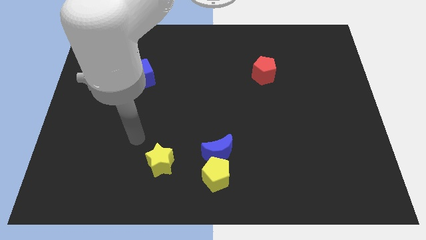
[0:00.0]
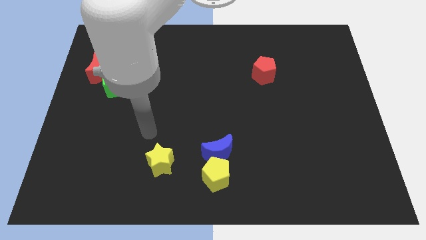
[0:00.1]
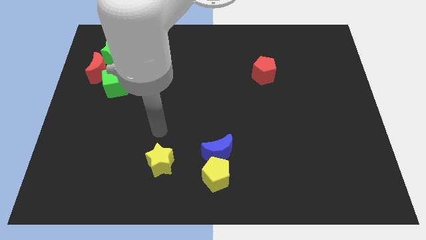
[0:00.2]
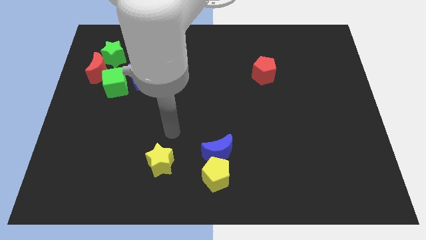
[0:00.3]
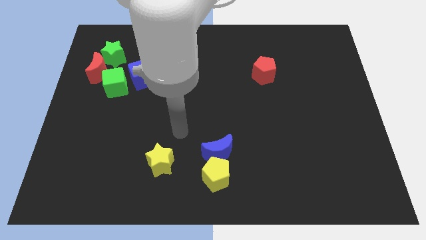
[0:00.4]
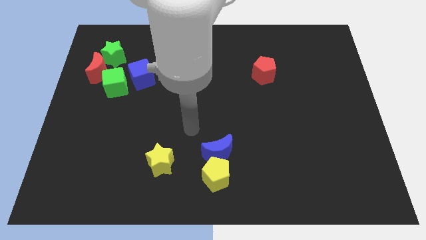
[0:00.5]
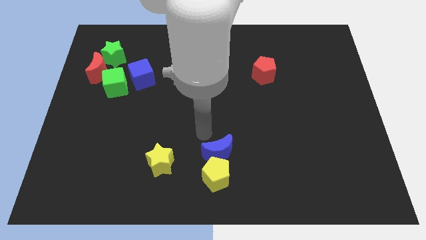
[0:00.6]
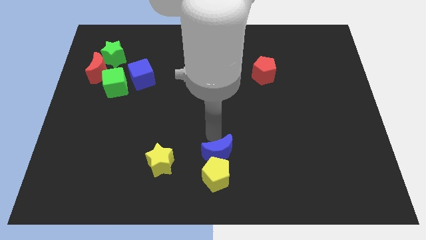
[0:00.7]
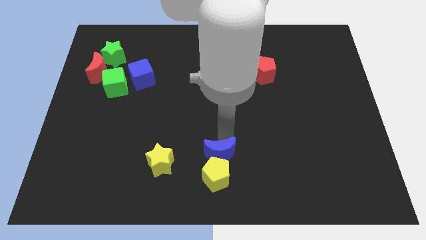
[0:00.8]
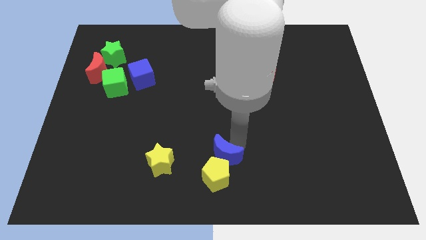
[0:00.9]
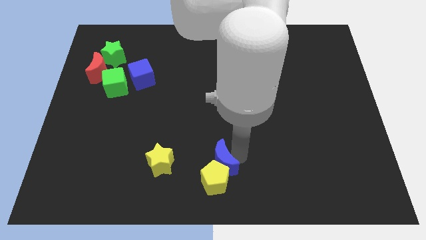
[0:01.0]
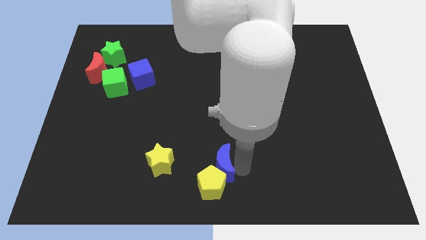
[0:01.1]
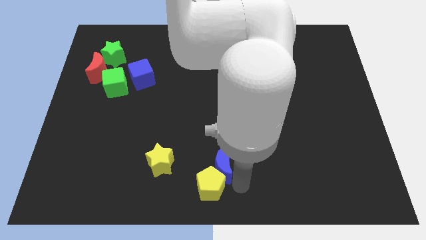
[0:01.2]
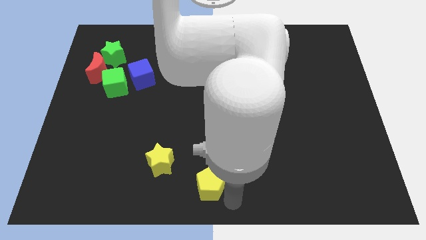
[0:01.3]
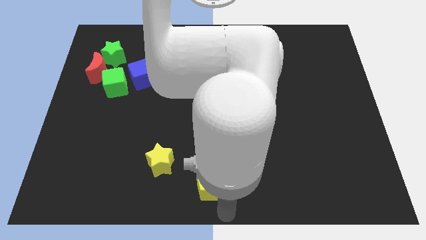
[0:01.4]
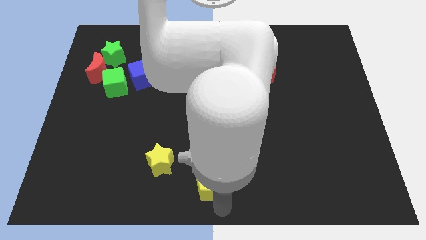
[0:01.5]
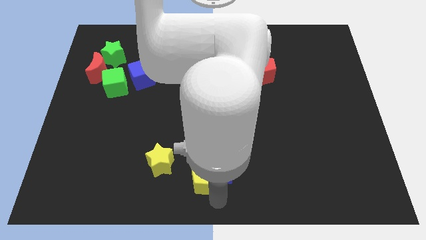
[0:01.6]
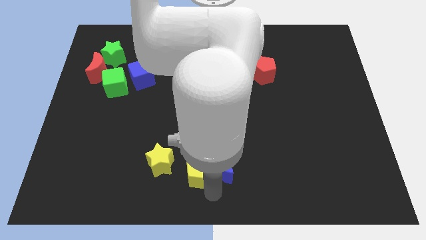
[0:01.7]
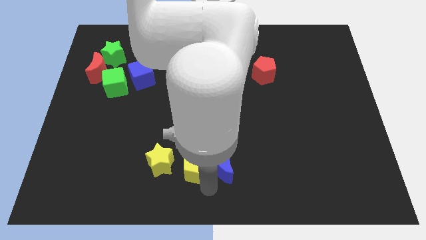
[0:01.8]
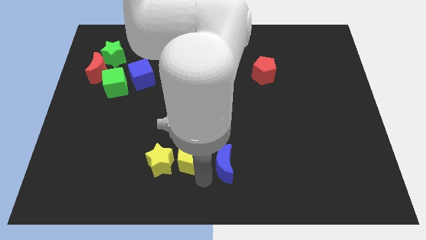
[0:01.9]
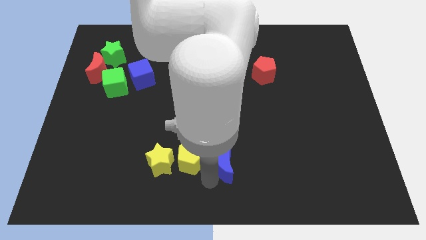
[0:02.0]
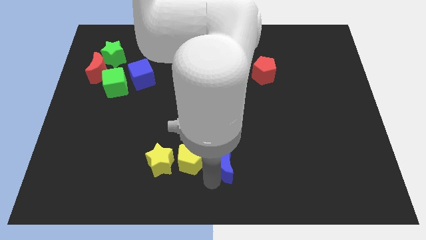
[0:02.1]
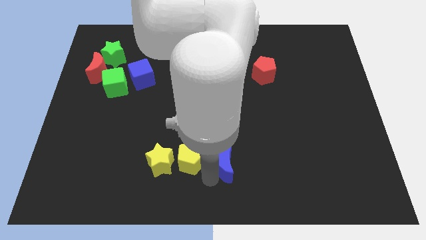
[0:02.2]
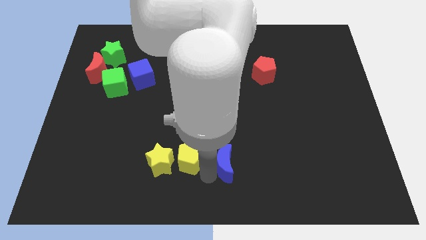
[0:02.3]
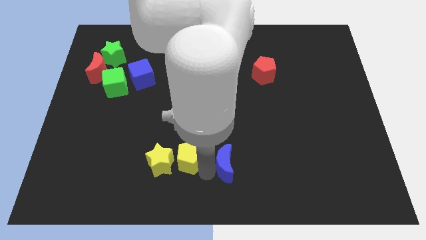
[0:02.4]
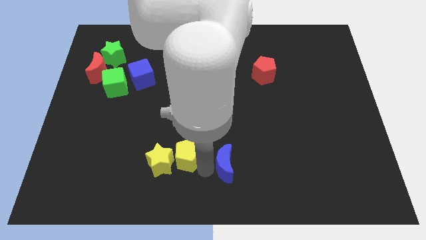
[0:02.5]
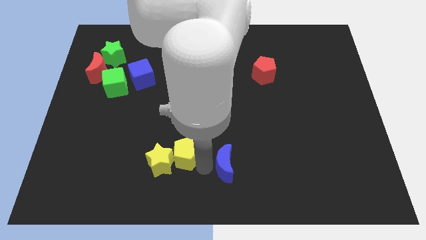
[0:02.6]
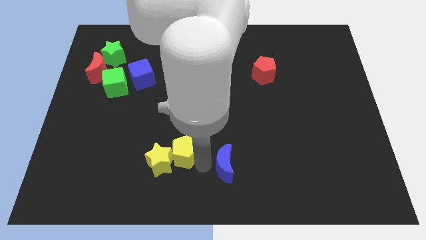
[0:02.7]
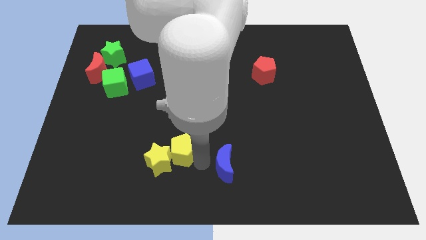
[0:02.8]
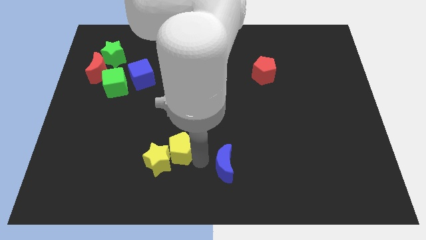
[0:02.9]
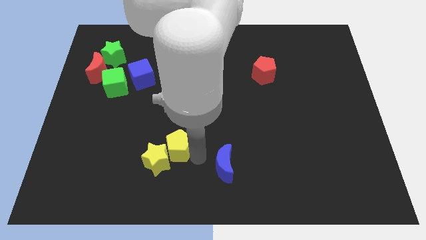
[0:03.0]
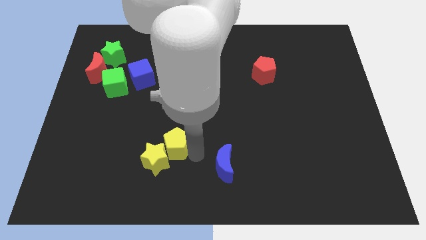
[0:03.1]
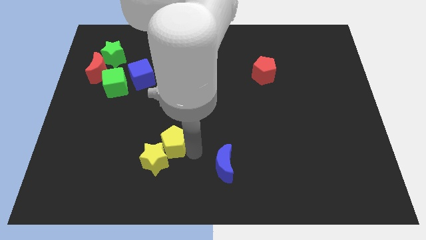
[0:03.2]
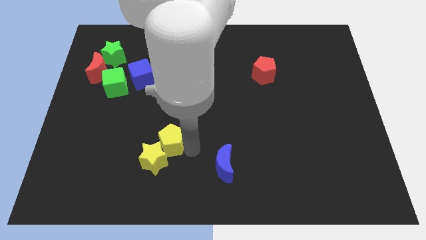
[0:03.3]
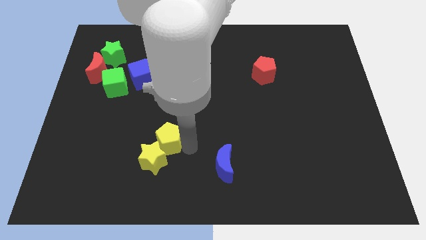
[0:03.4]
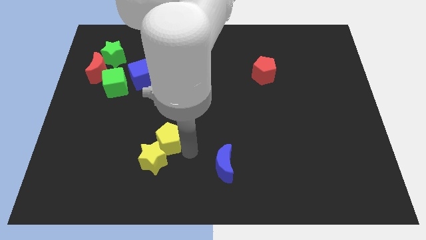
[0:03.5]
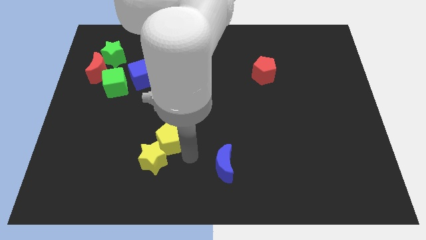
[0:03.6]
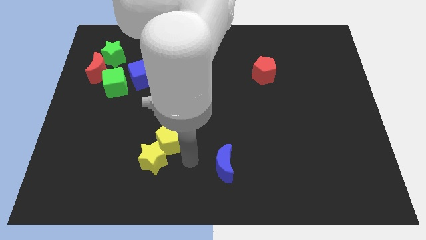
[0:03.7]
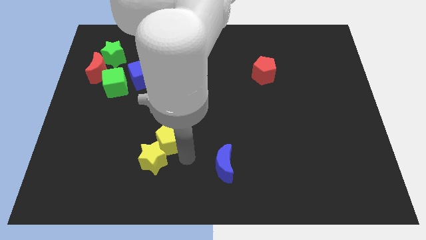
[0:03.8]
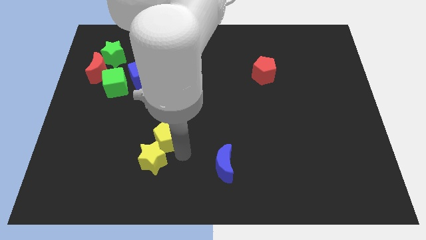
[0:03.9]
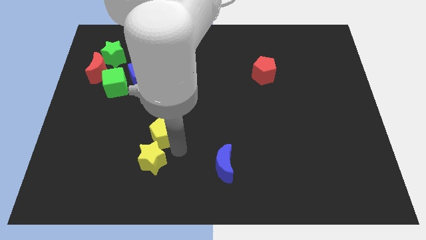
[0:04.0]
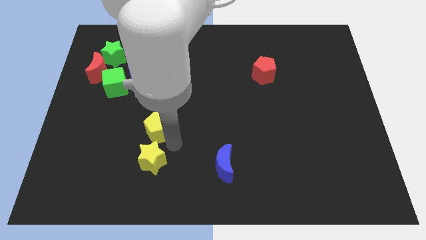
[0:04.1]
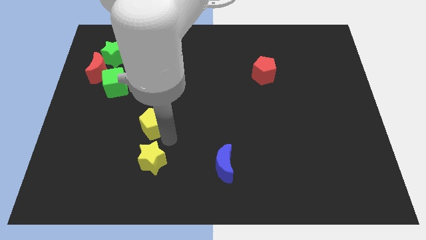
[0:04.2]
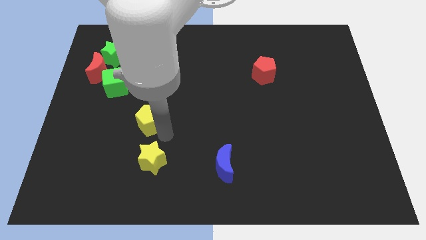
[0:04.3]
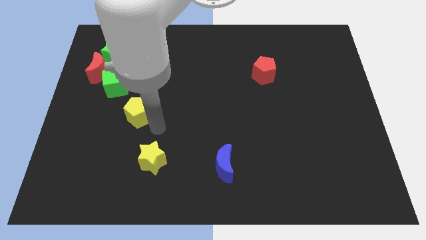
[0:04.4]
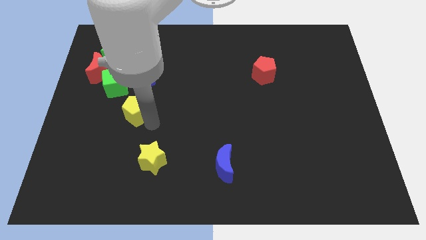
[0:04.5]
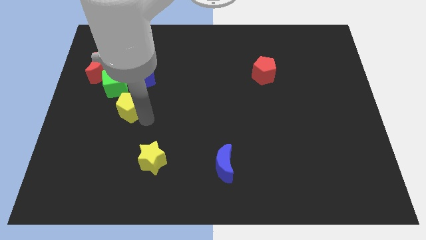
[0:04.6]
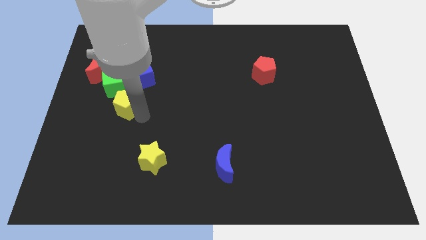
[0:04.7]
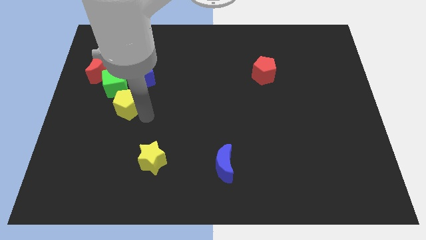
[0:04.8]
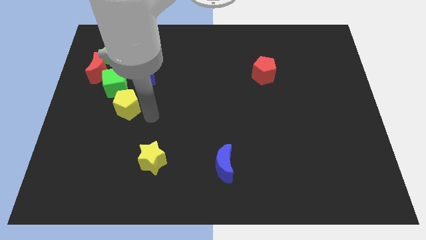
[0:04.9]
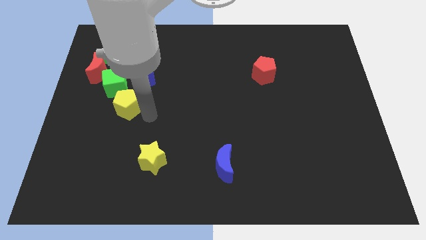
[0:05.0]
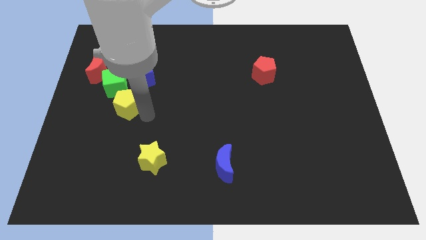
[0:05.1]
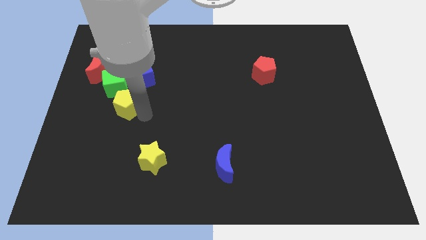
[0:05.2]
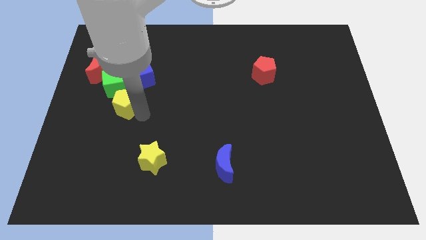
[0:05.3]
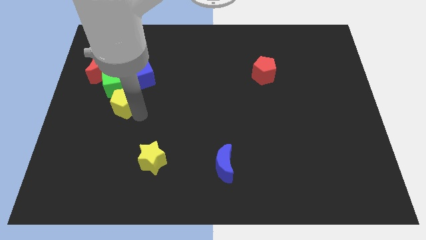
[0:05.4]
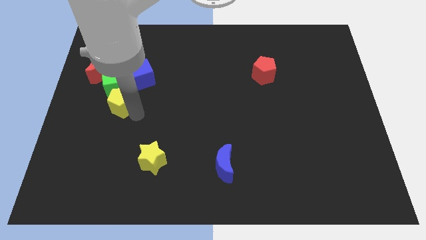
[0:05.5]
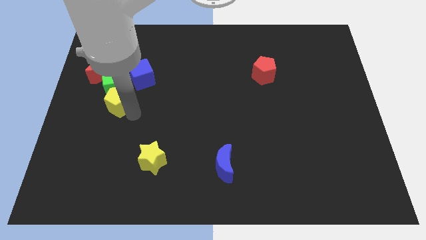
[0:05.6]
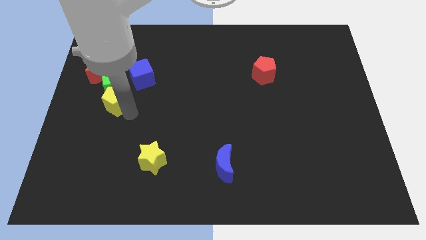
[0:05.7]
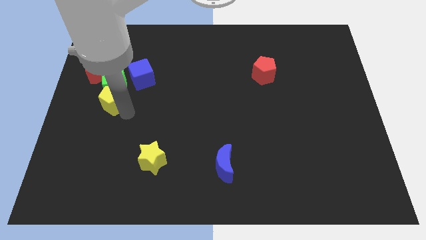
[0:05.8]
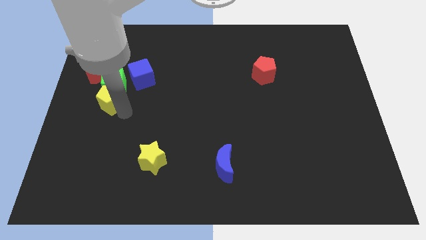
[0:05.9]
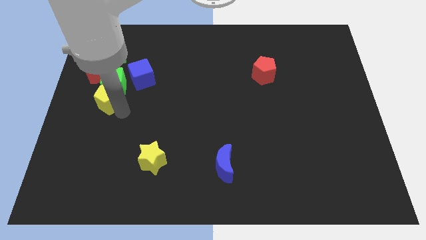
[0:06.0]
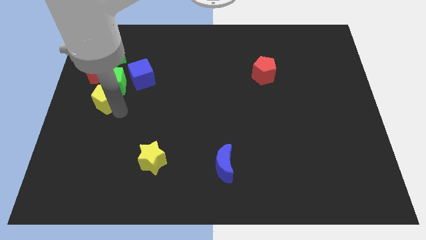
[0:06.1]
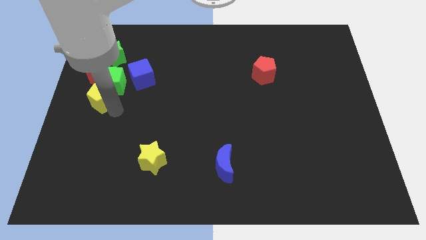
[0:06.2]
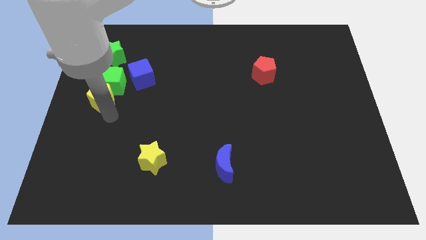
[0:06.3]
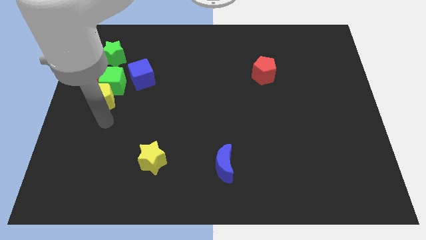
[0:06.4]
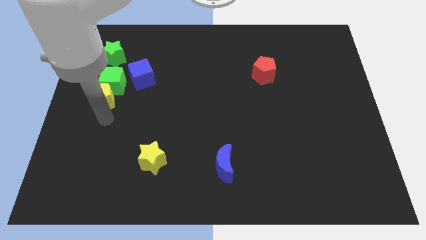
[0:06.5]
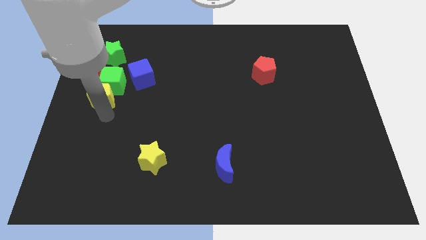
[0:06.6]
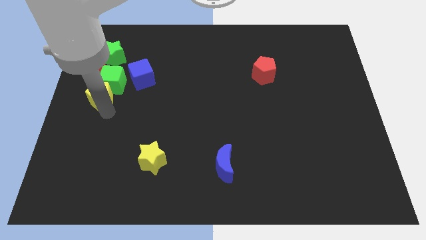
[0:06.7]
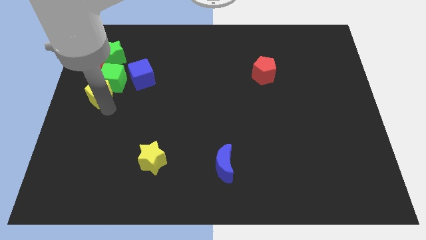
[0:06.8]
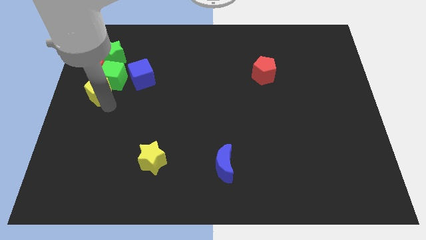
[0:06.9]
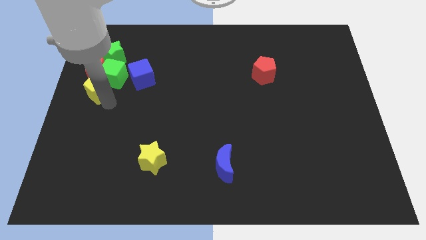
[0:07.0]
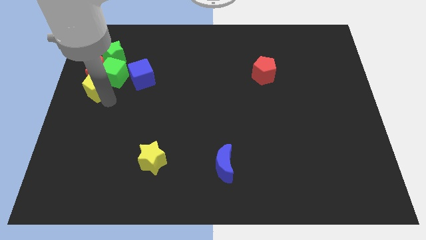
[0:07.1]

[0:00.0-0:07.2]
put the yellow pentagon towards the red moon
